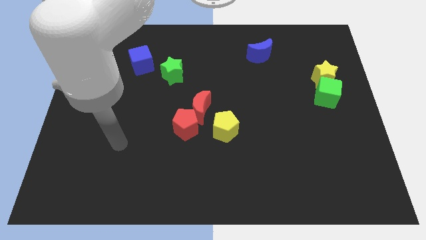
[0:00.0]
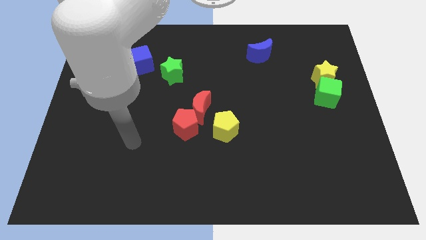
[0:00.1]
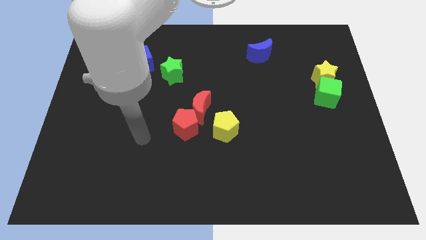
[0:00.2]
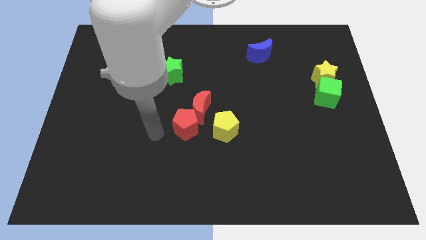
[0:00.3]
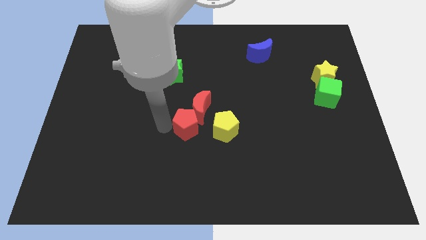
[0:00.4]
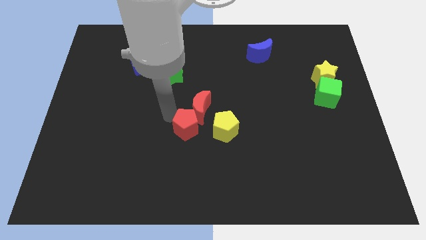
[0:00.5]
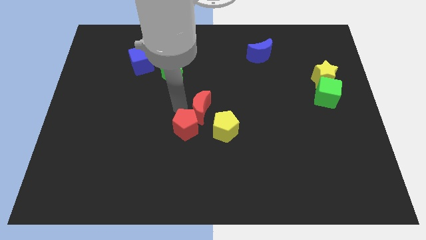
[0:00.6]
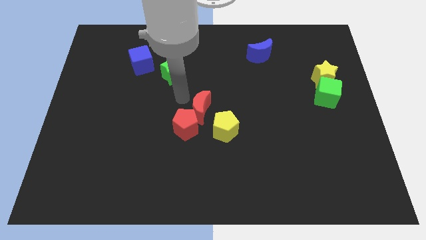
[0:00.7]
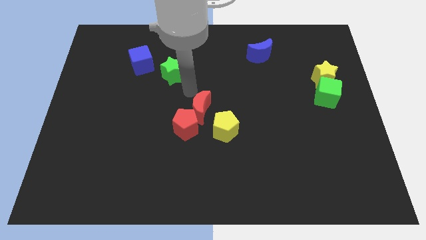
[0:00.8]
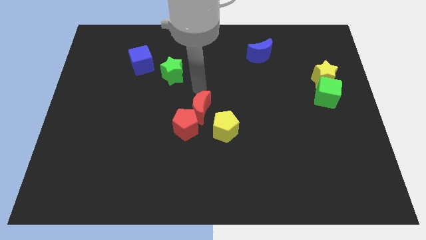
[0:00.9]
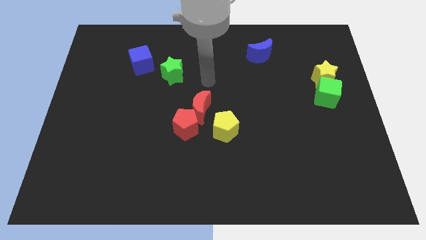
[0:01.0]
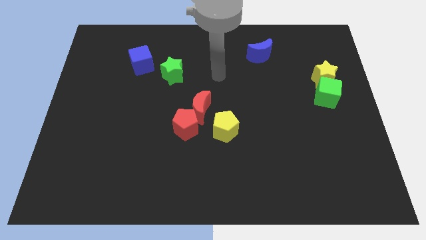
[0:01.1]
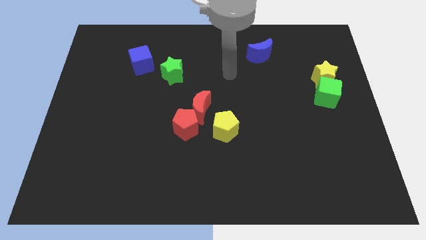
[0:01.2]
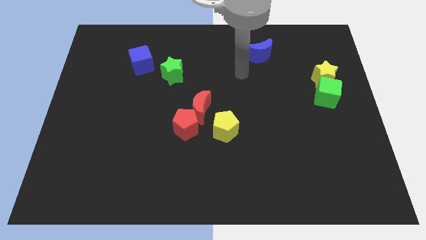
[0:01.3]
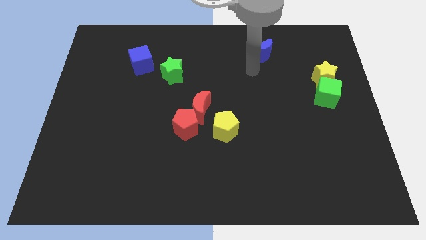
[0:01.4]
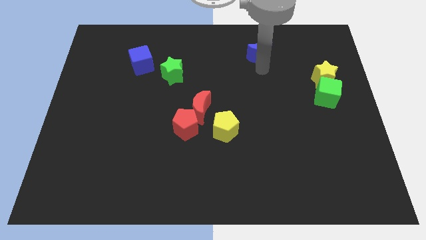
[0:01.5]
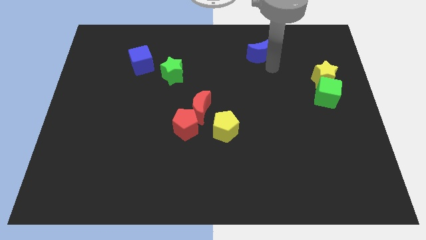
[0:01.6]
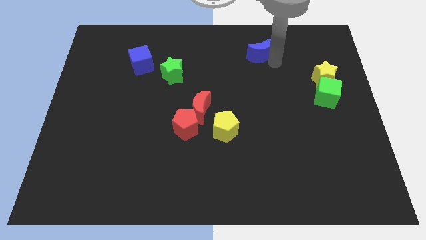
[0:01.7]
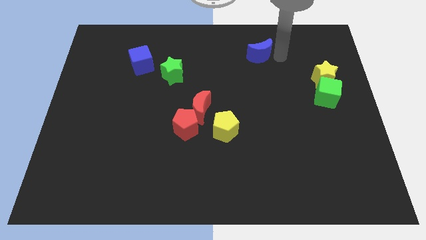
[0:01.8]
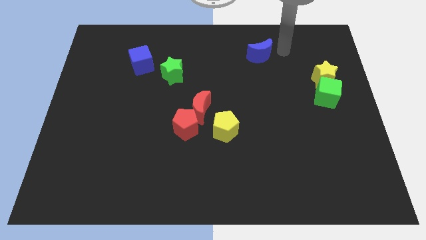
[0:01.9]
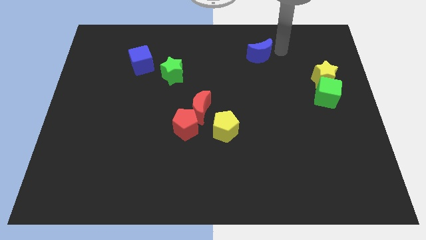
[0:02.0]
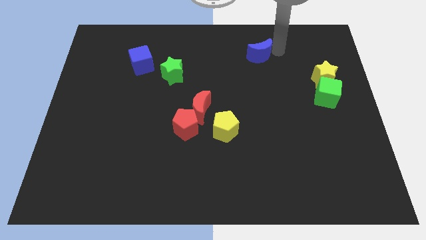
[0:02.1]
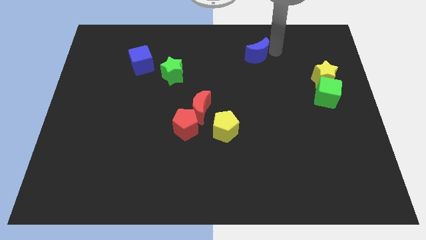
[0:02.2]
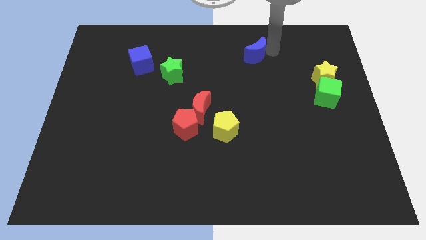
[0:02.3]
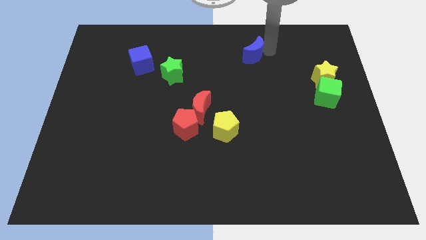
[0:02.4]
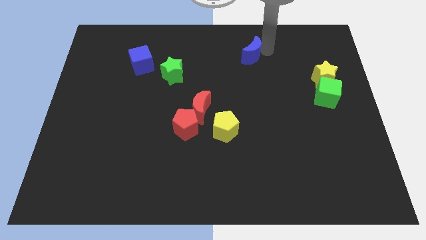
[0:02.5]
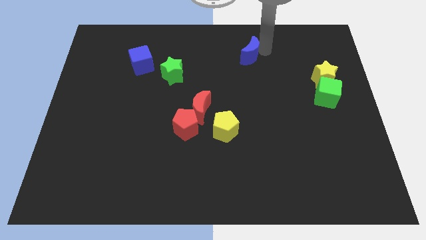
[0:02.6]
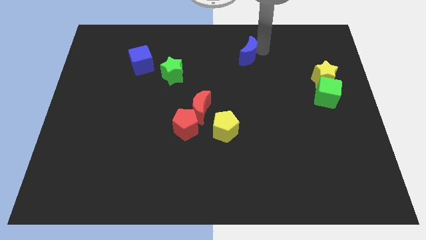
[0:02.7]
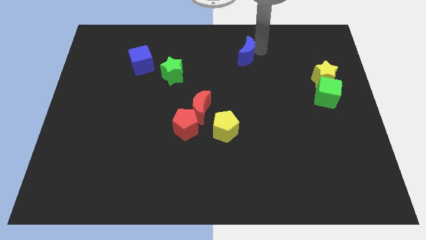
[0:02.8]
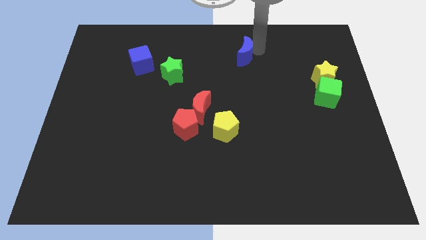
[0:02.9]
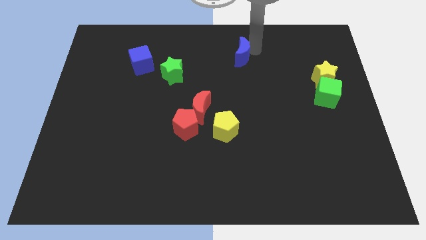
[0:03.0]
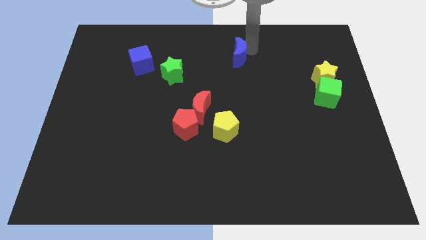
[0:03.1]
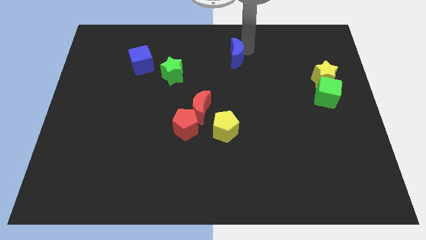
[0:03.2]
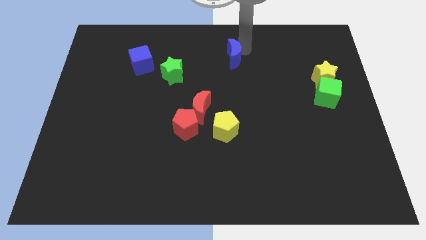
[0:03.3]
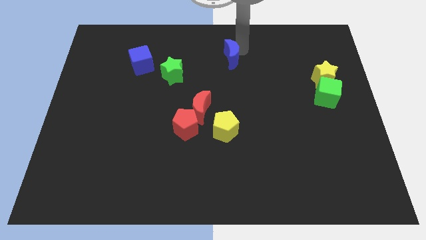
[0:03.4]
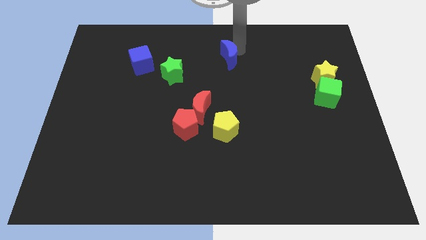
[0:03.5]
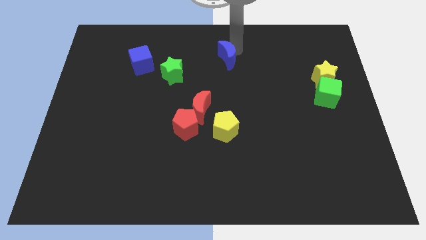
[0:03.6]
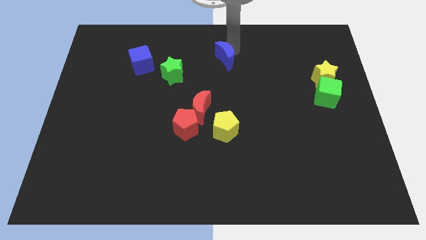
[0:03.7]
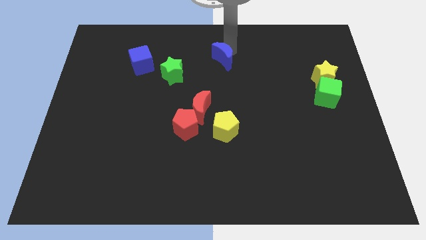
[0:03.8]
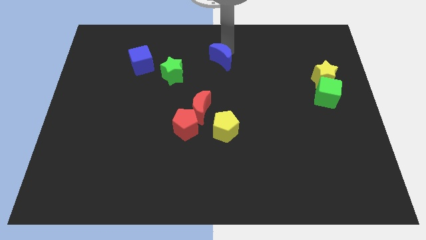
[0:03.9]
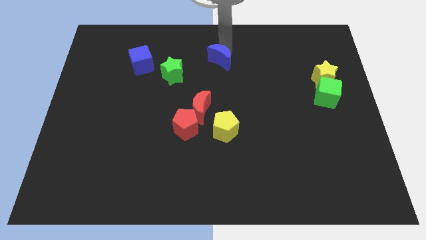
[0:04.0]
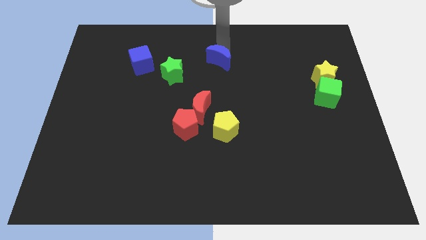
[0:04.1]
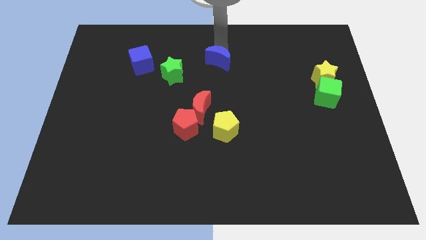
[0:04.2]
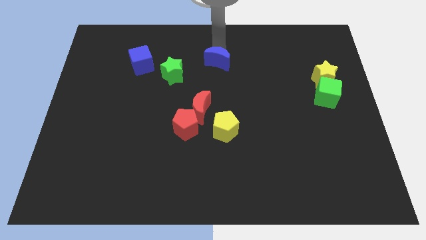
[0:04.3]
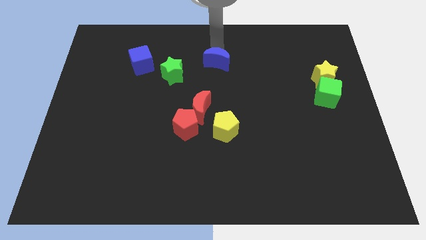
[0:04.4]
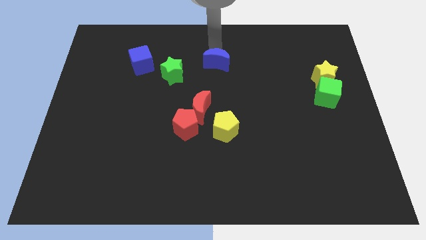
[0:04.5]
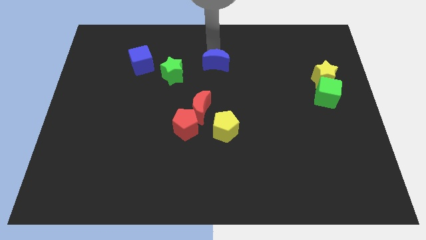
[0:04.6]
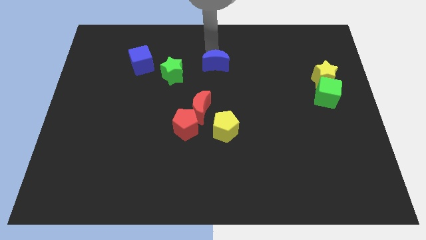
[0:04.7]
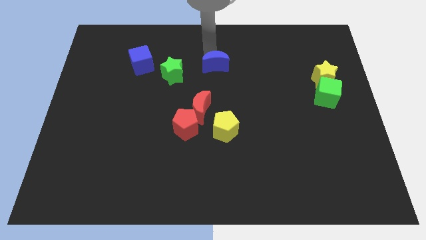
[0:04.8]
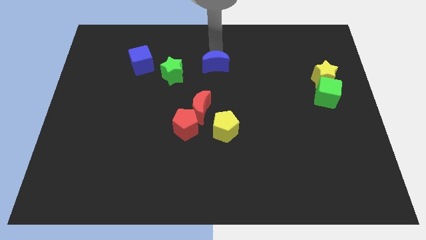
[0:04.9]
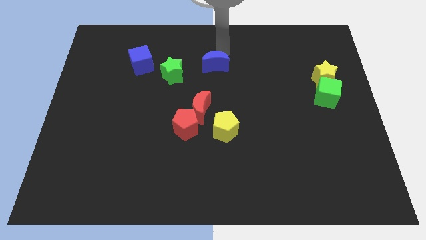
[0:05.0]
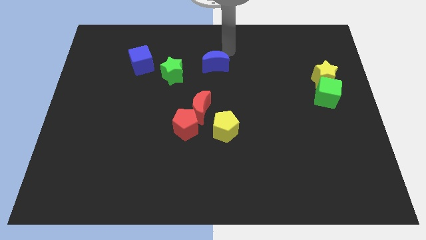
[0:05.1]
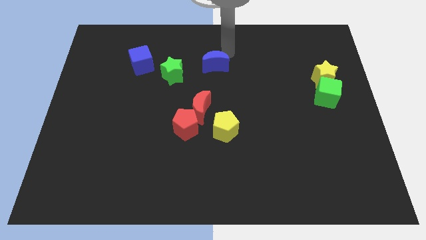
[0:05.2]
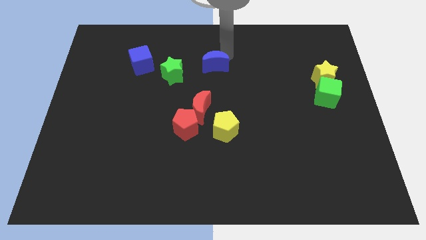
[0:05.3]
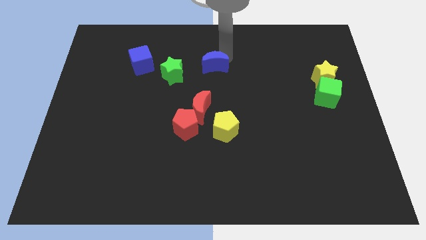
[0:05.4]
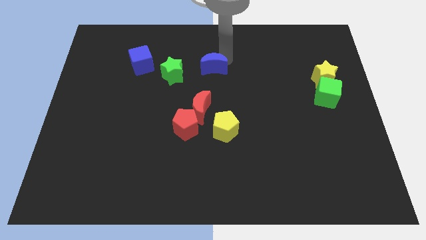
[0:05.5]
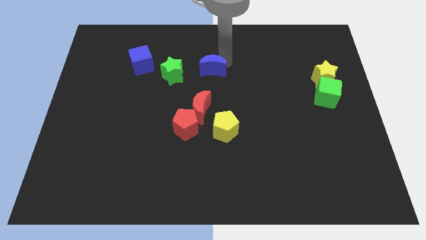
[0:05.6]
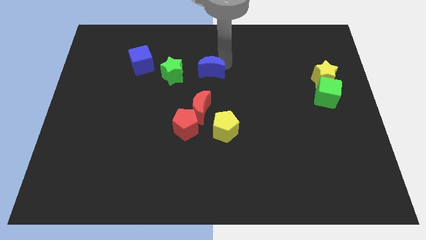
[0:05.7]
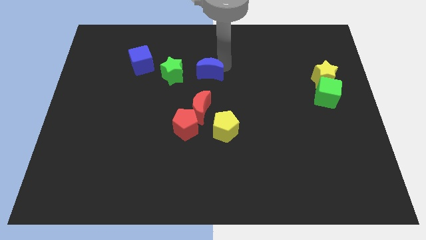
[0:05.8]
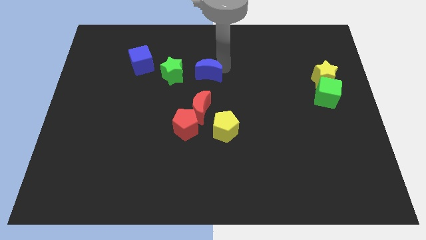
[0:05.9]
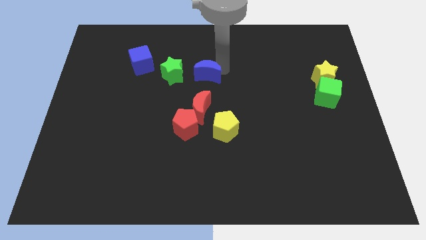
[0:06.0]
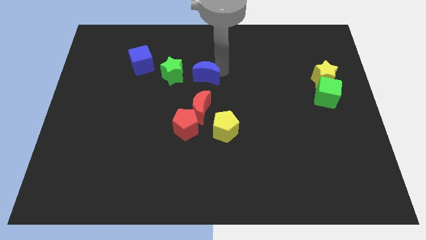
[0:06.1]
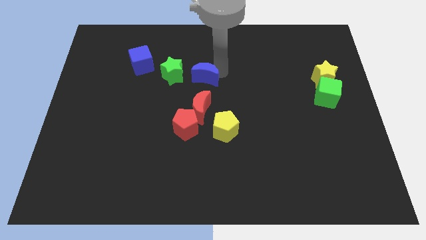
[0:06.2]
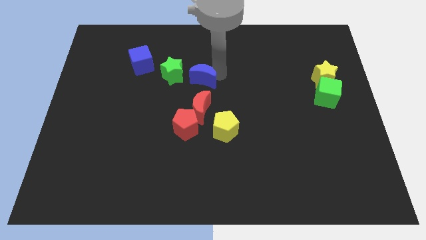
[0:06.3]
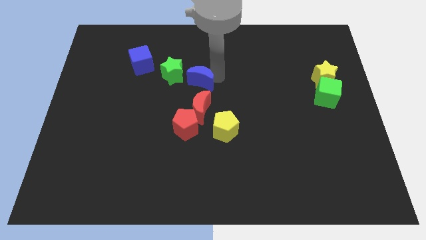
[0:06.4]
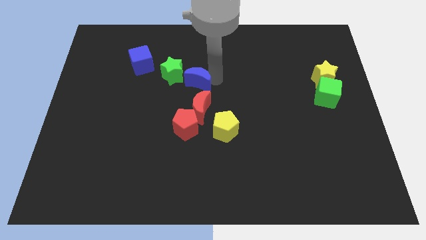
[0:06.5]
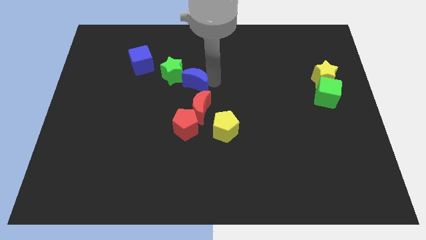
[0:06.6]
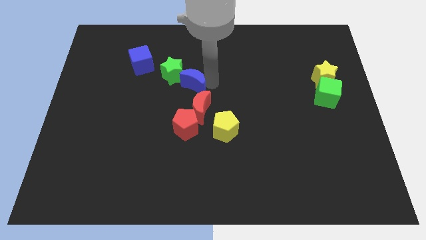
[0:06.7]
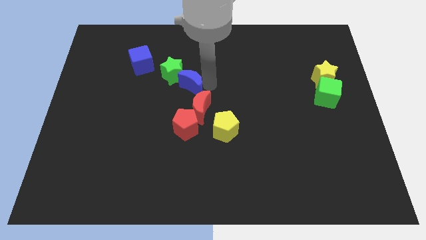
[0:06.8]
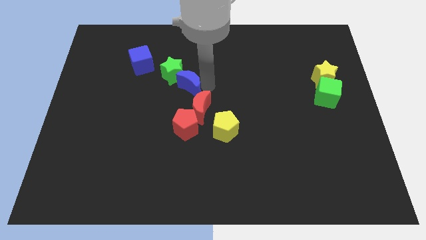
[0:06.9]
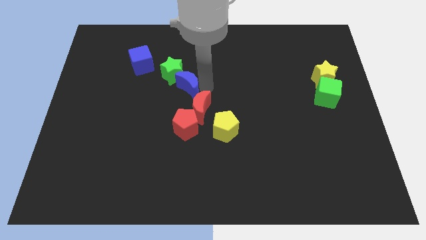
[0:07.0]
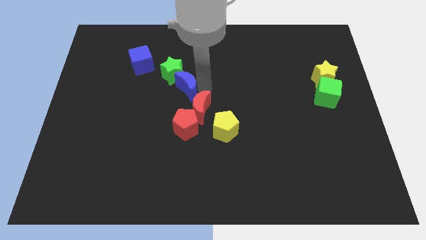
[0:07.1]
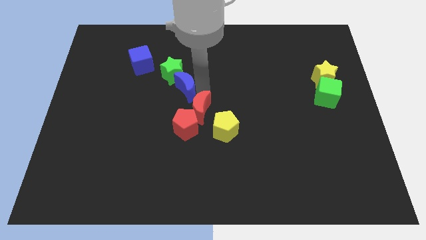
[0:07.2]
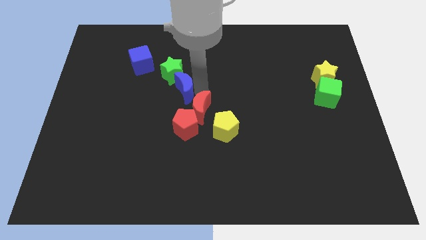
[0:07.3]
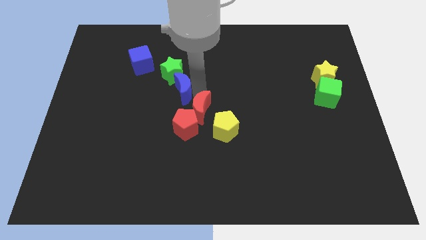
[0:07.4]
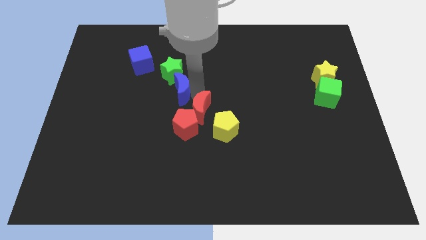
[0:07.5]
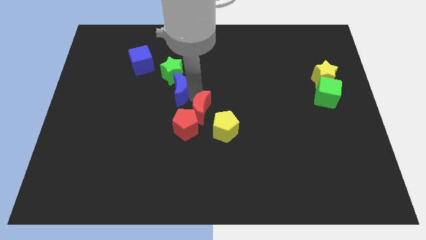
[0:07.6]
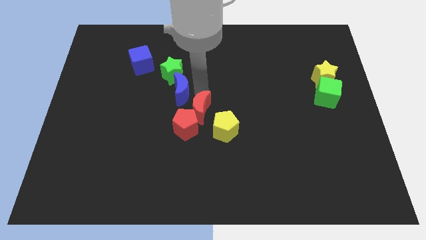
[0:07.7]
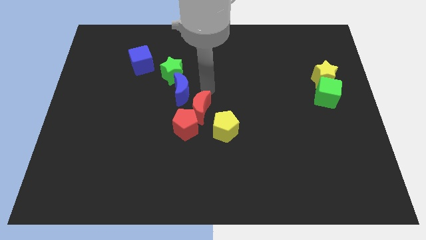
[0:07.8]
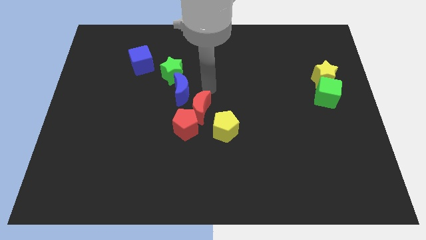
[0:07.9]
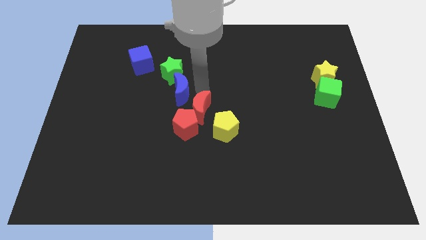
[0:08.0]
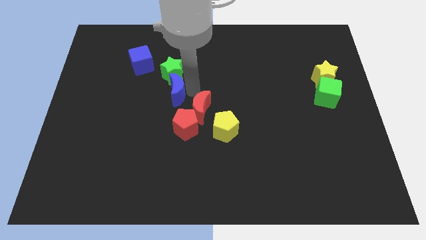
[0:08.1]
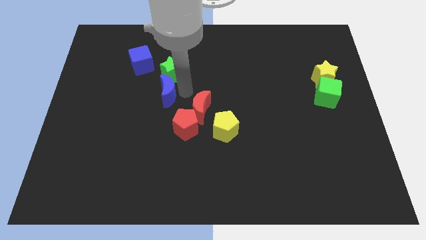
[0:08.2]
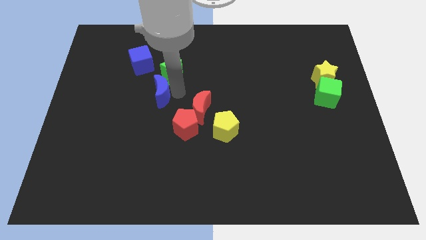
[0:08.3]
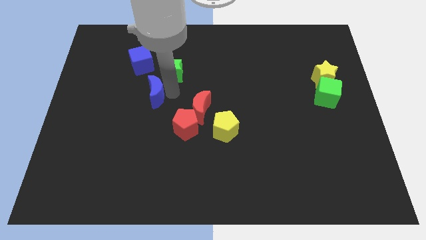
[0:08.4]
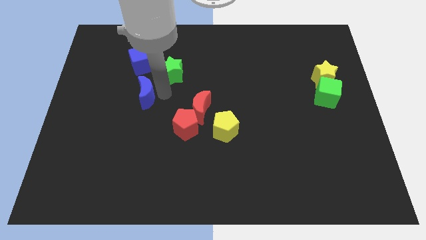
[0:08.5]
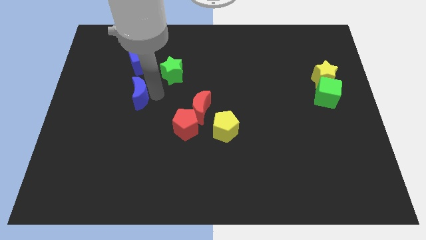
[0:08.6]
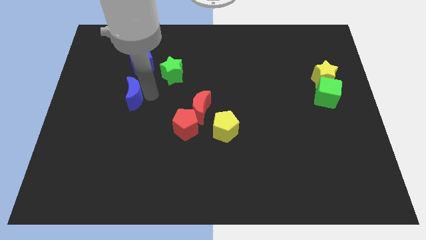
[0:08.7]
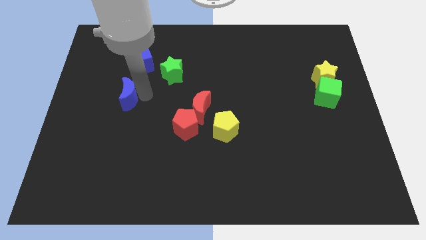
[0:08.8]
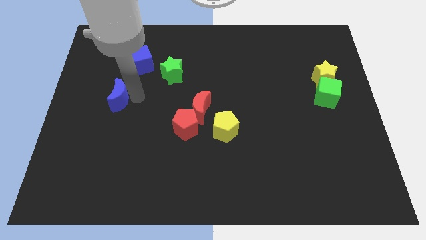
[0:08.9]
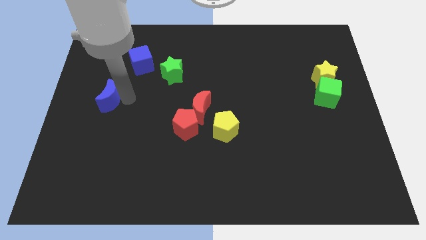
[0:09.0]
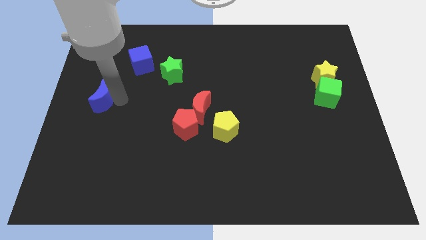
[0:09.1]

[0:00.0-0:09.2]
slide the blue moon to the left side of the board
